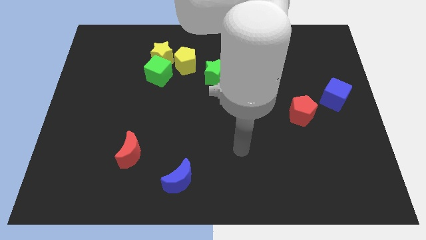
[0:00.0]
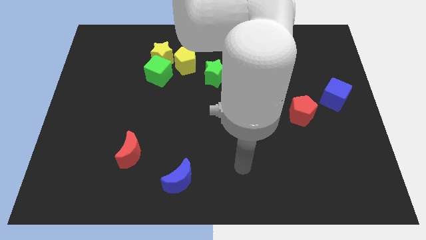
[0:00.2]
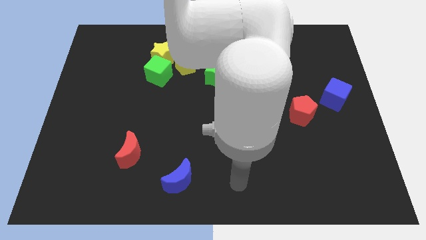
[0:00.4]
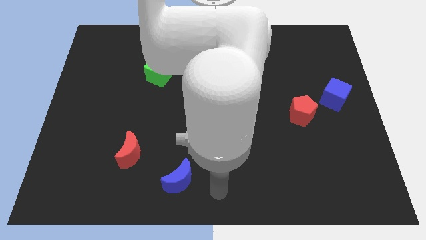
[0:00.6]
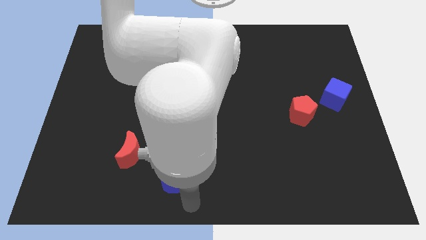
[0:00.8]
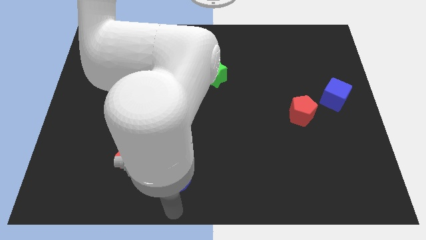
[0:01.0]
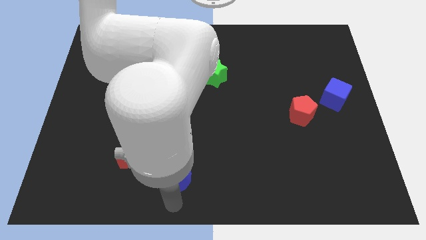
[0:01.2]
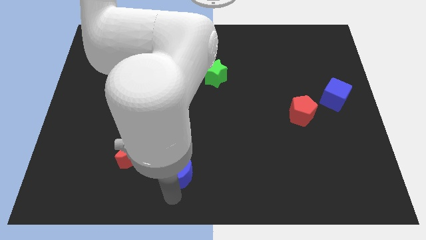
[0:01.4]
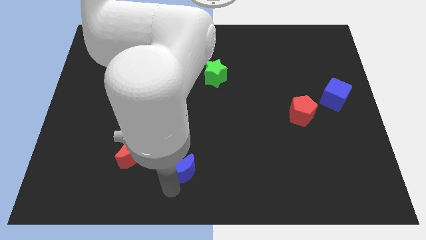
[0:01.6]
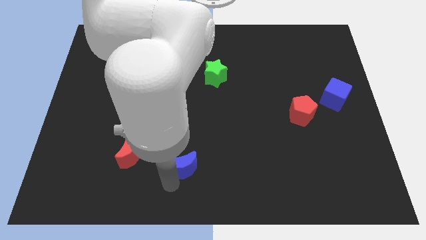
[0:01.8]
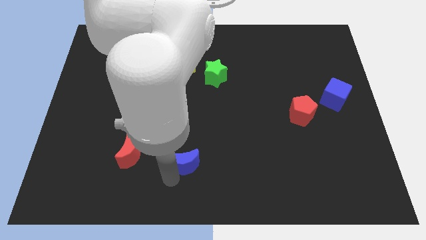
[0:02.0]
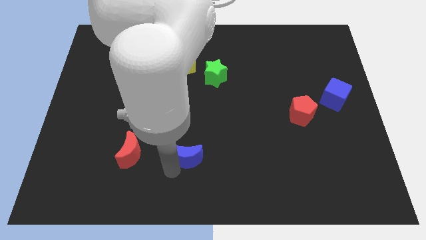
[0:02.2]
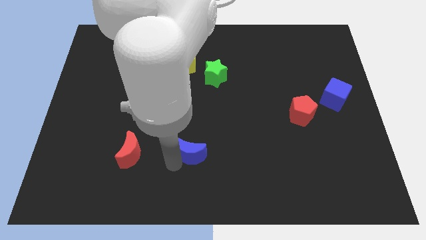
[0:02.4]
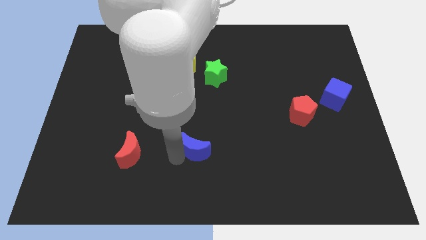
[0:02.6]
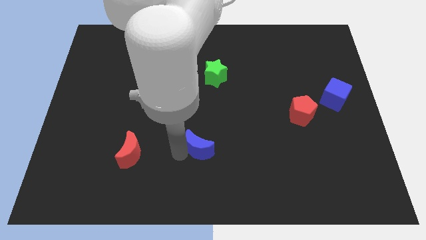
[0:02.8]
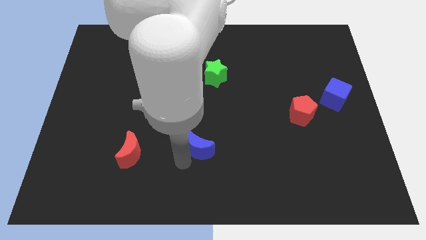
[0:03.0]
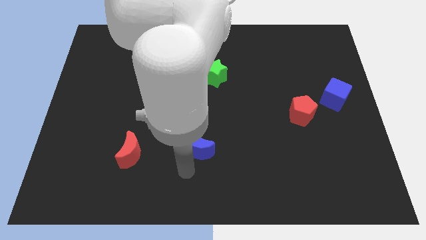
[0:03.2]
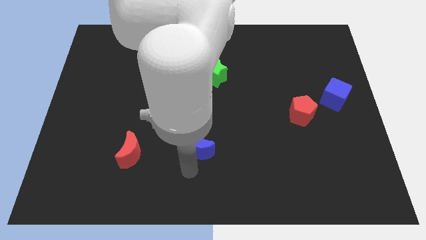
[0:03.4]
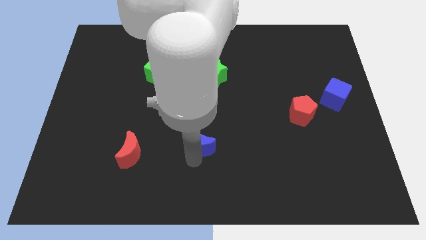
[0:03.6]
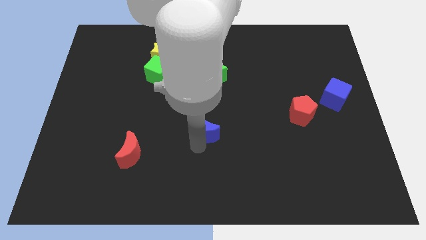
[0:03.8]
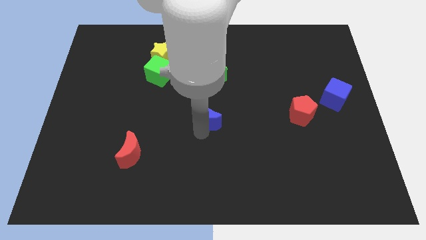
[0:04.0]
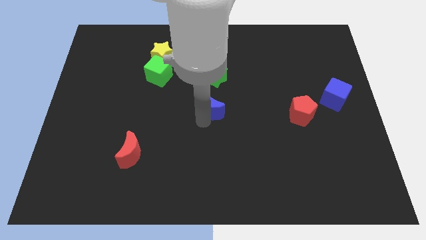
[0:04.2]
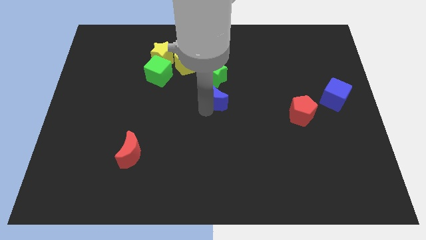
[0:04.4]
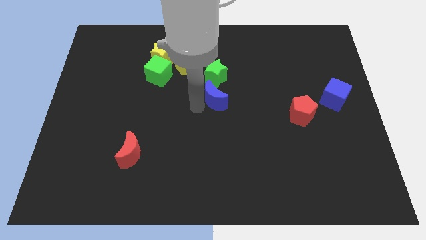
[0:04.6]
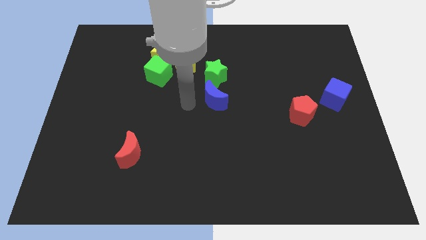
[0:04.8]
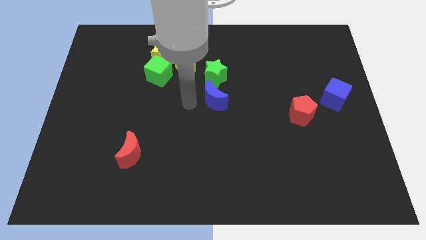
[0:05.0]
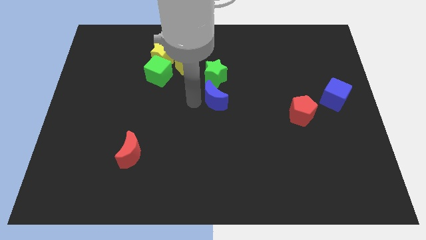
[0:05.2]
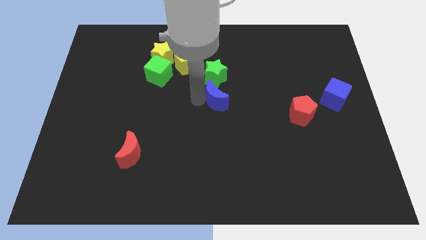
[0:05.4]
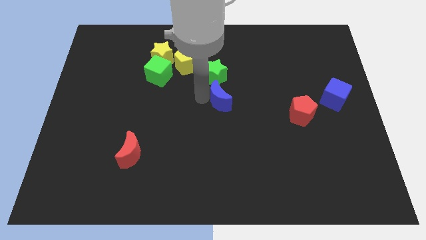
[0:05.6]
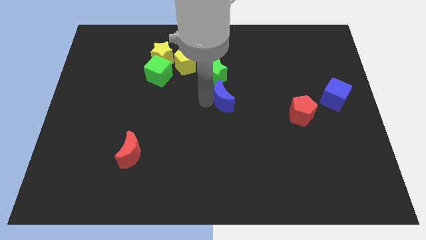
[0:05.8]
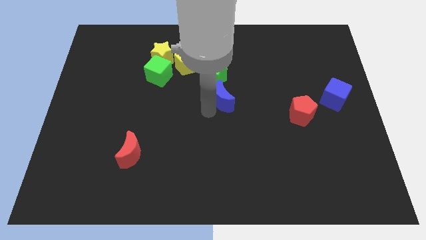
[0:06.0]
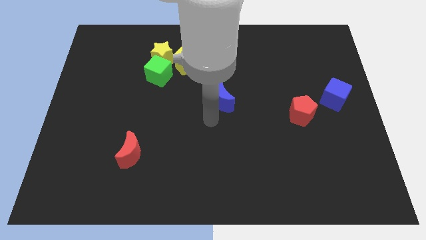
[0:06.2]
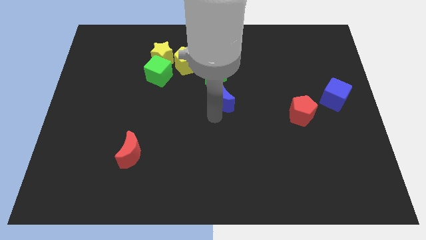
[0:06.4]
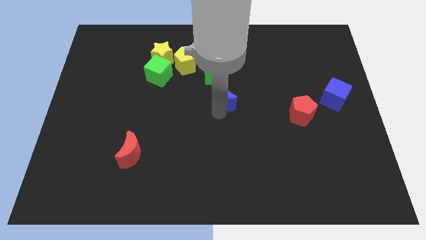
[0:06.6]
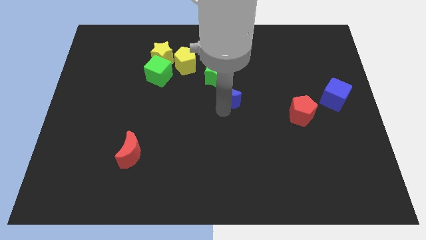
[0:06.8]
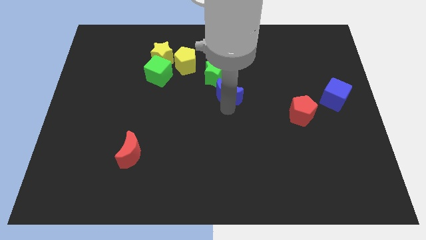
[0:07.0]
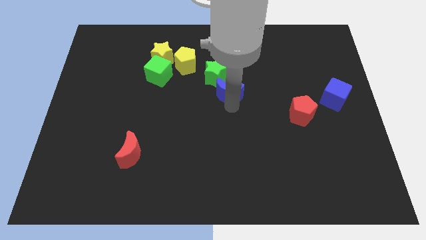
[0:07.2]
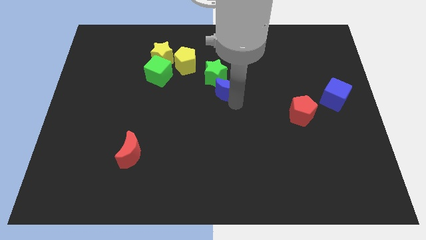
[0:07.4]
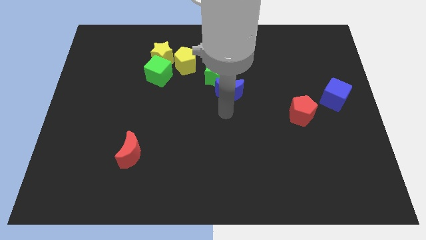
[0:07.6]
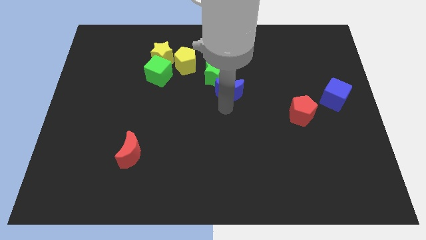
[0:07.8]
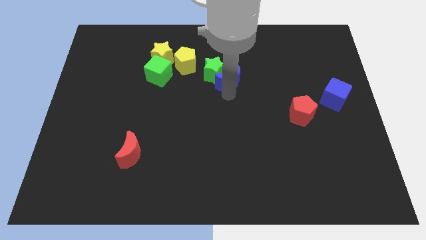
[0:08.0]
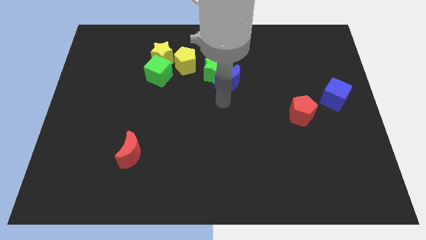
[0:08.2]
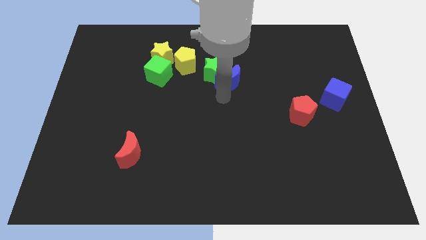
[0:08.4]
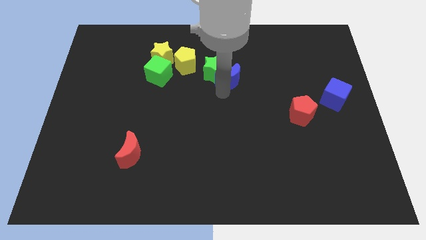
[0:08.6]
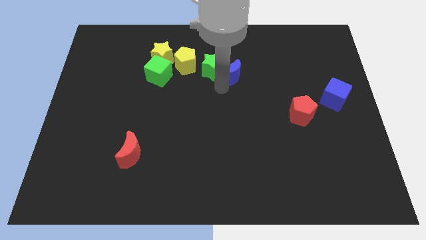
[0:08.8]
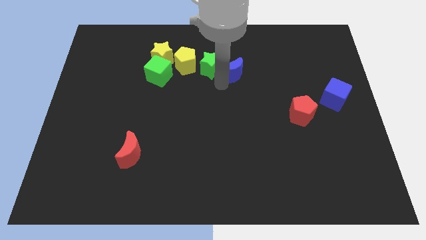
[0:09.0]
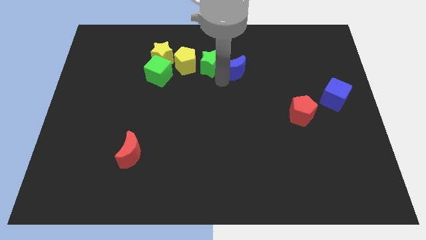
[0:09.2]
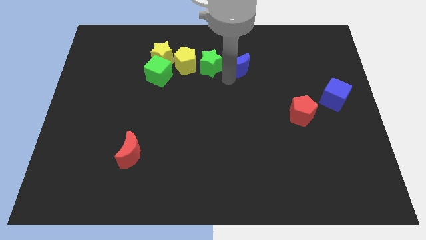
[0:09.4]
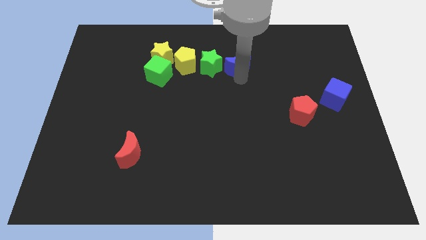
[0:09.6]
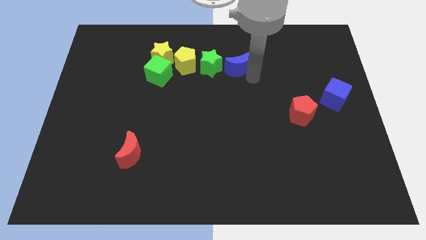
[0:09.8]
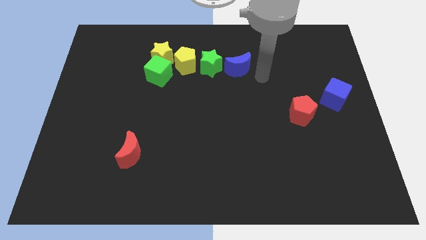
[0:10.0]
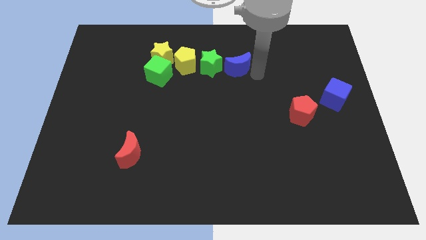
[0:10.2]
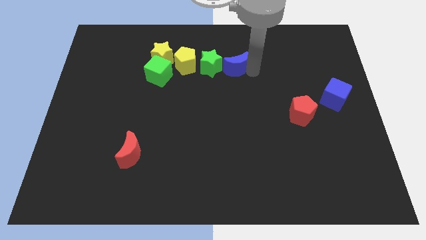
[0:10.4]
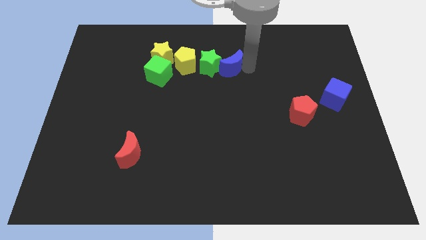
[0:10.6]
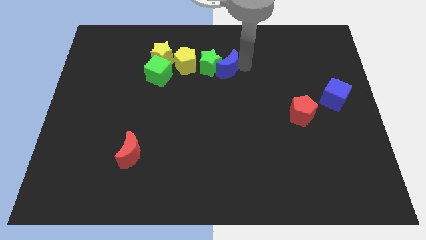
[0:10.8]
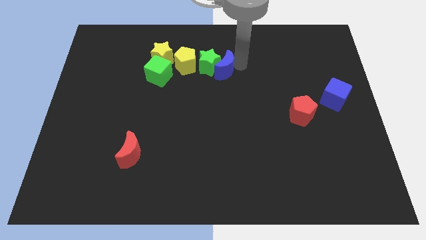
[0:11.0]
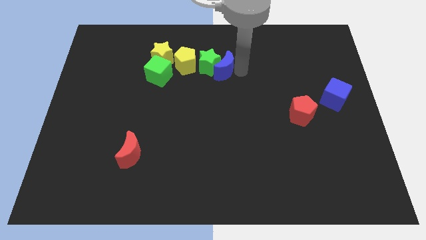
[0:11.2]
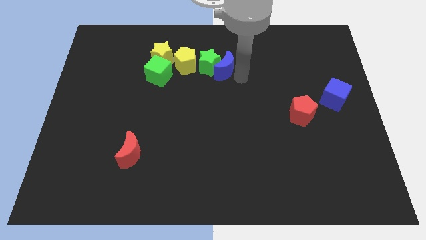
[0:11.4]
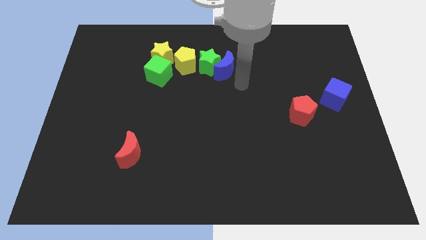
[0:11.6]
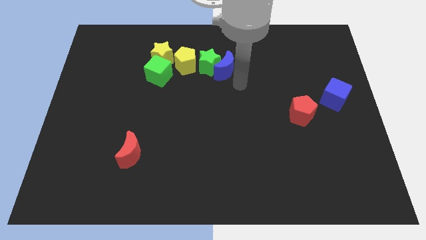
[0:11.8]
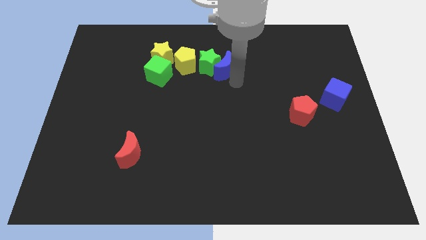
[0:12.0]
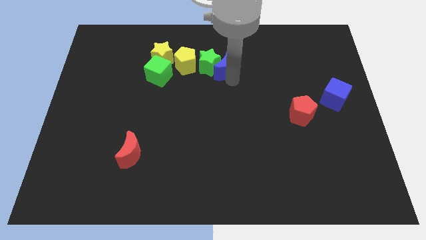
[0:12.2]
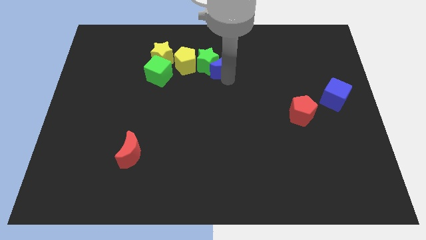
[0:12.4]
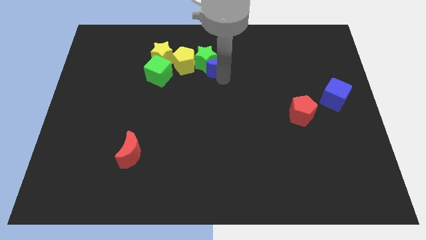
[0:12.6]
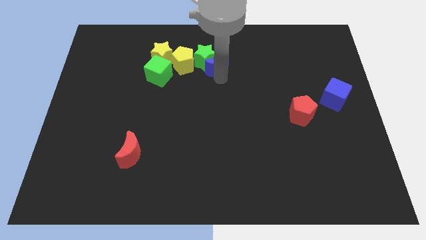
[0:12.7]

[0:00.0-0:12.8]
put the blue moon just right of the yellow star
